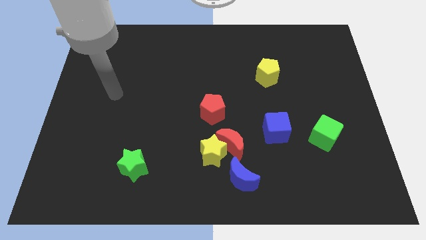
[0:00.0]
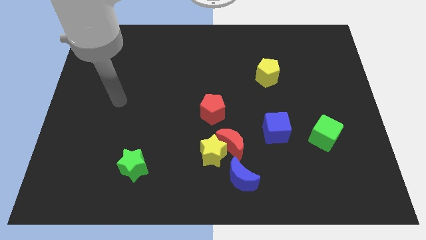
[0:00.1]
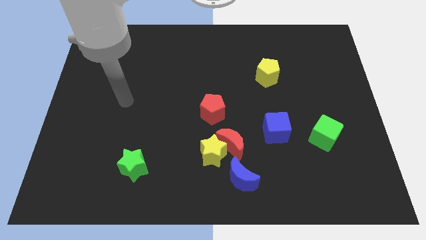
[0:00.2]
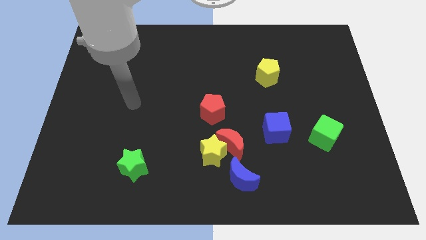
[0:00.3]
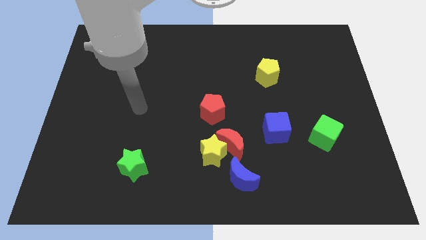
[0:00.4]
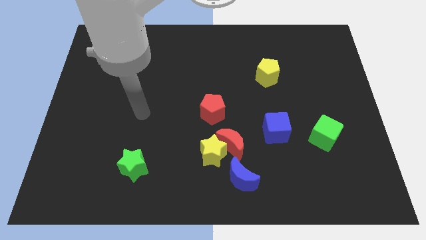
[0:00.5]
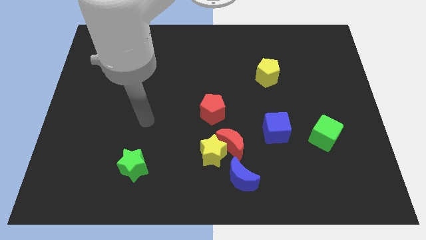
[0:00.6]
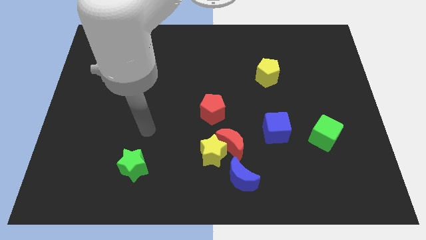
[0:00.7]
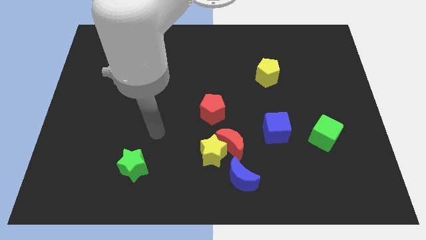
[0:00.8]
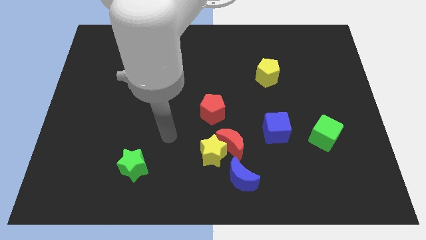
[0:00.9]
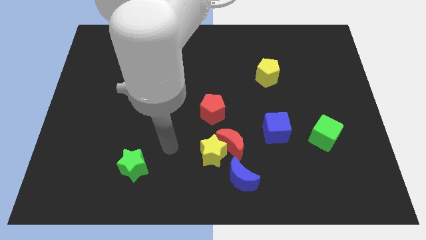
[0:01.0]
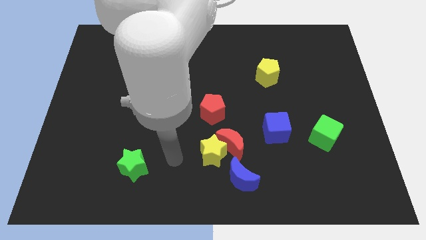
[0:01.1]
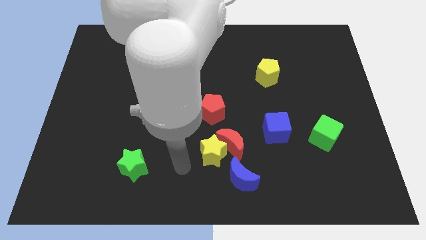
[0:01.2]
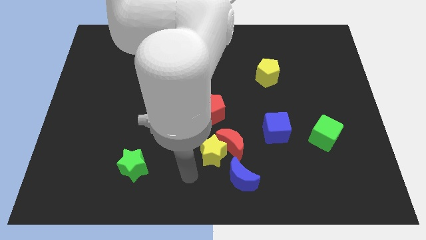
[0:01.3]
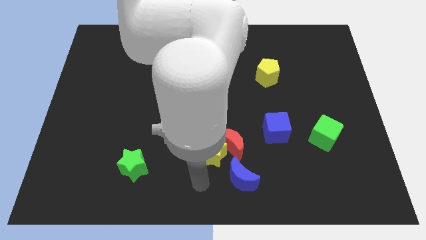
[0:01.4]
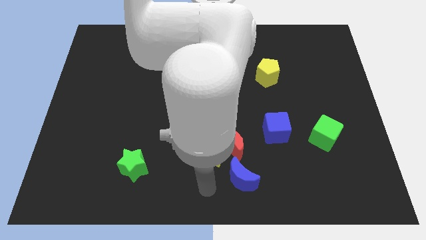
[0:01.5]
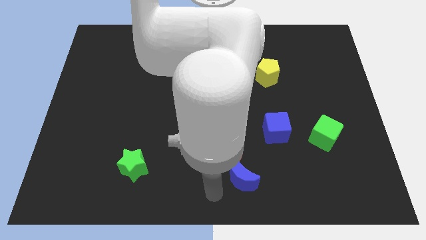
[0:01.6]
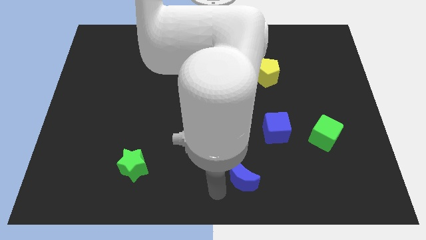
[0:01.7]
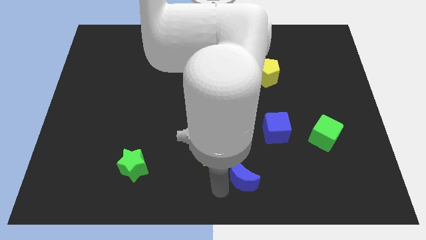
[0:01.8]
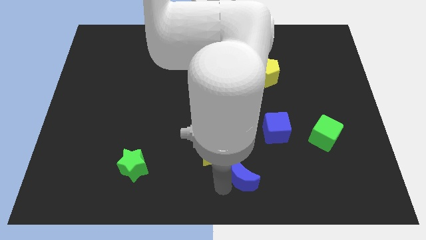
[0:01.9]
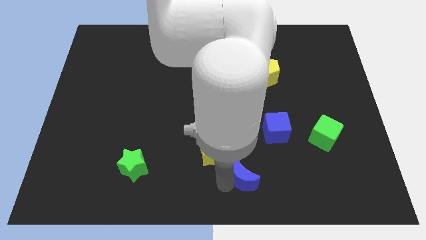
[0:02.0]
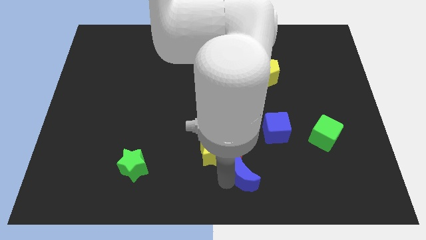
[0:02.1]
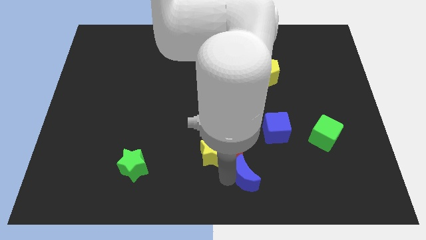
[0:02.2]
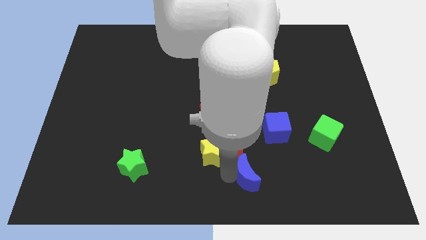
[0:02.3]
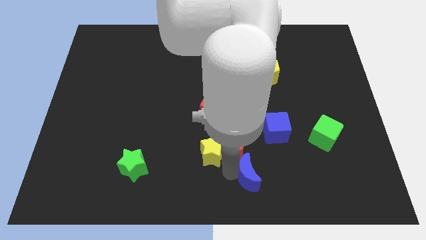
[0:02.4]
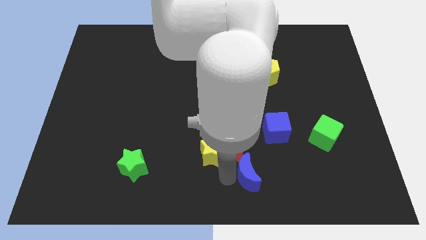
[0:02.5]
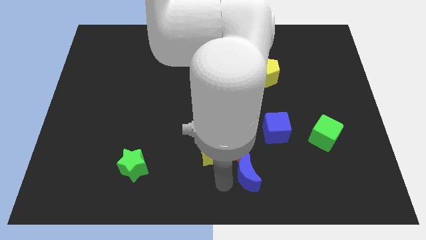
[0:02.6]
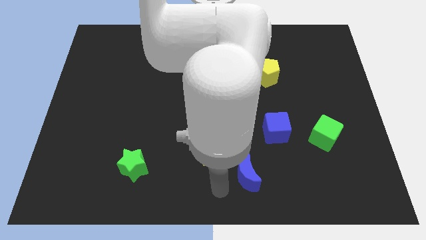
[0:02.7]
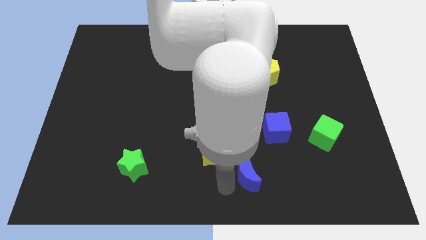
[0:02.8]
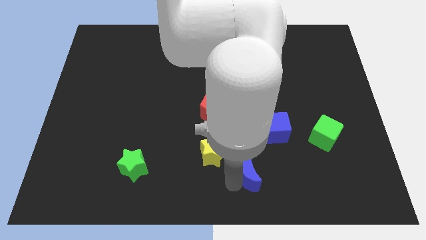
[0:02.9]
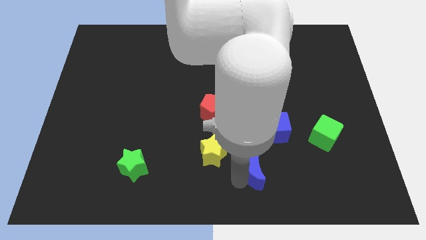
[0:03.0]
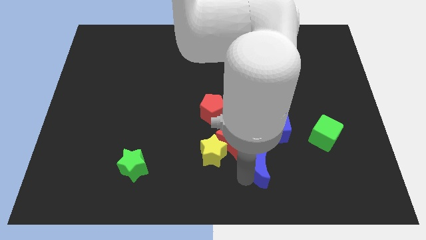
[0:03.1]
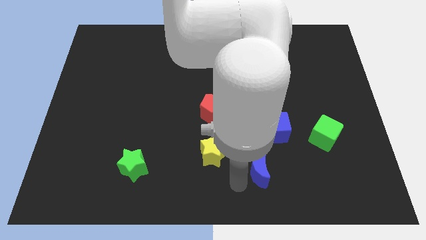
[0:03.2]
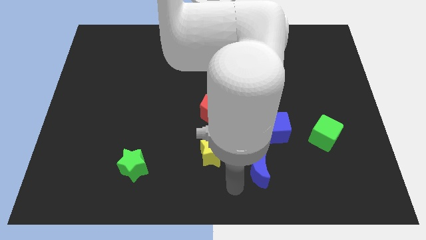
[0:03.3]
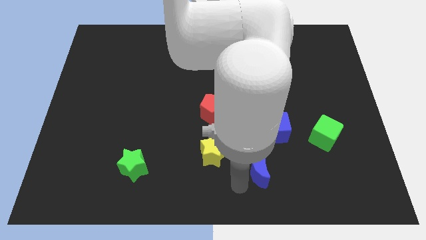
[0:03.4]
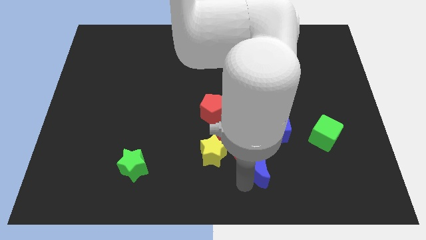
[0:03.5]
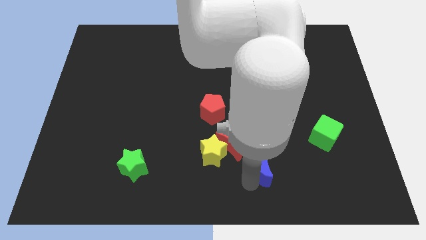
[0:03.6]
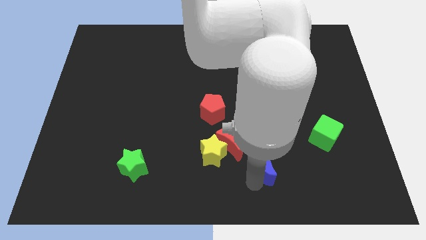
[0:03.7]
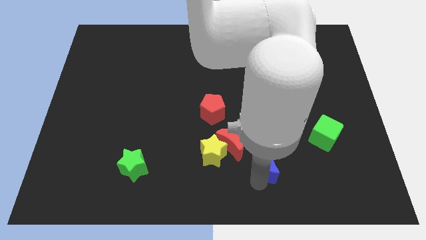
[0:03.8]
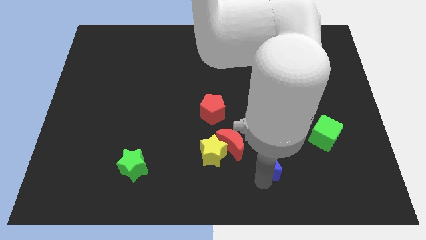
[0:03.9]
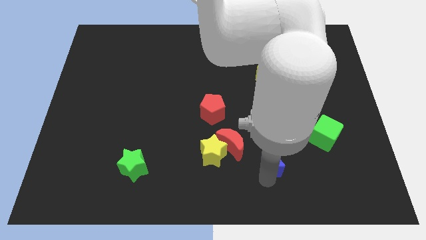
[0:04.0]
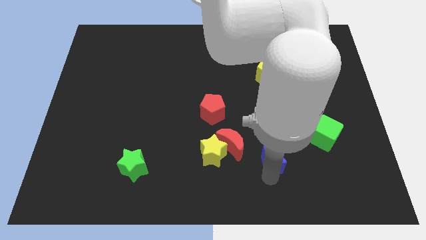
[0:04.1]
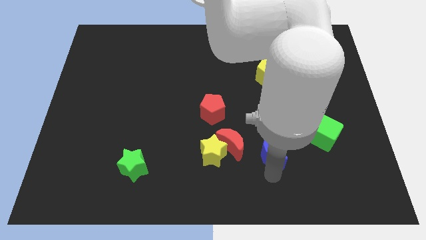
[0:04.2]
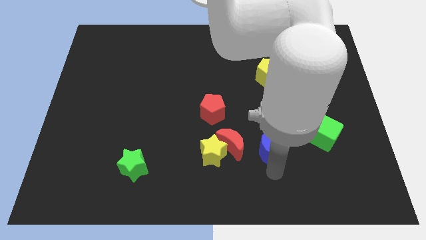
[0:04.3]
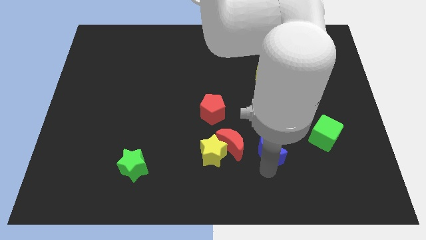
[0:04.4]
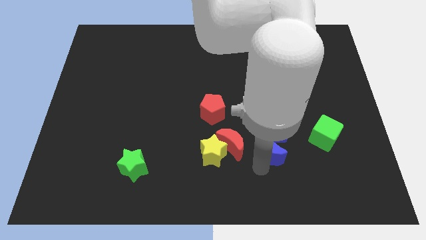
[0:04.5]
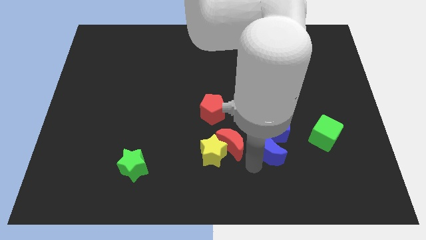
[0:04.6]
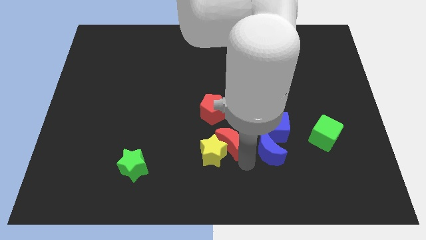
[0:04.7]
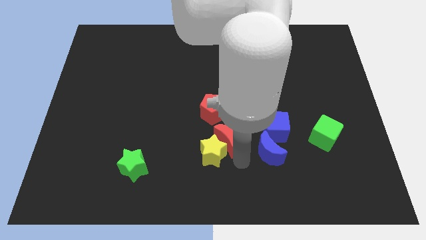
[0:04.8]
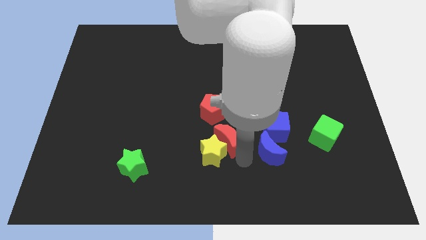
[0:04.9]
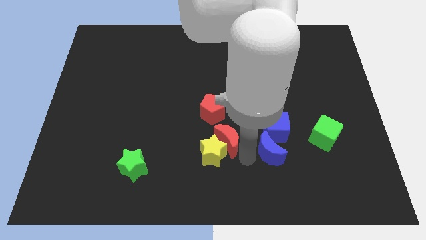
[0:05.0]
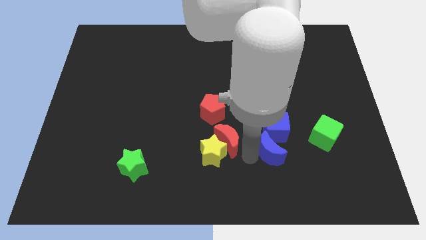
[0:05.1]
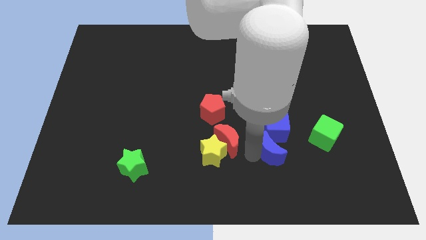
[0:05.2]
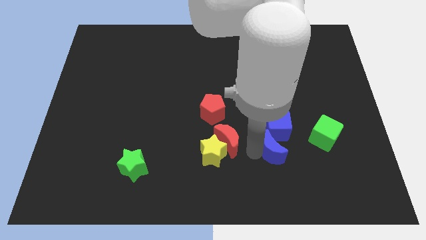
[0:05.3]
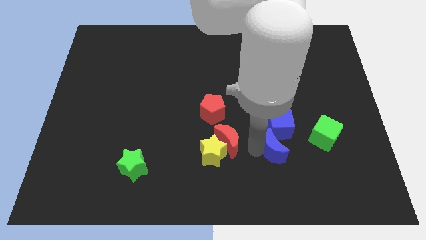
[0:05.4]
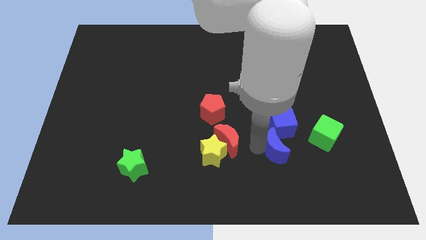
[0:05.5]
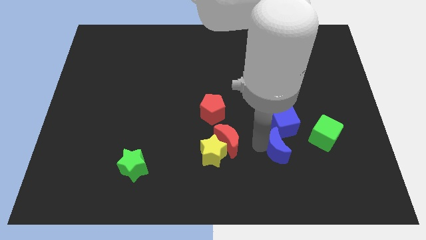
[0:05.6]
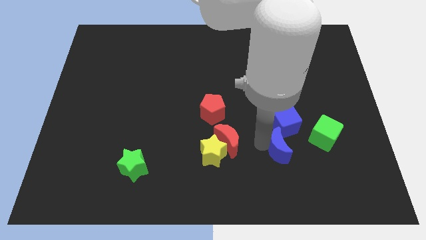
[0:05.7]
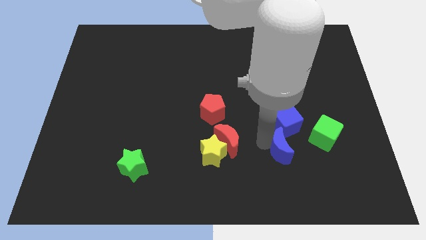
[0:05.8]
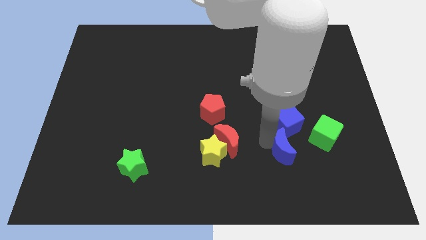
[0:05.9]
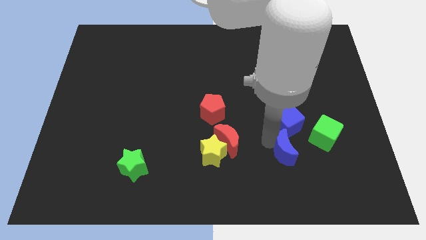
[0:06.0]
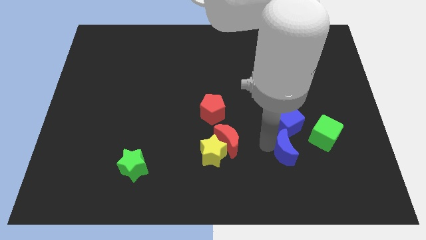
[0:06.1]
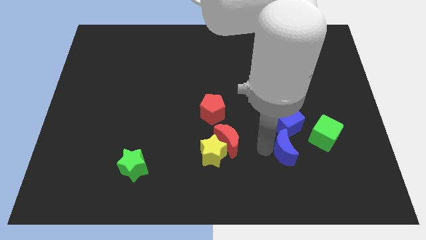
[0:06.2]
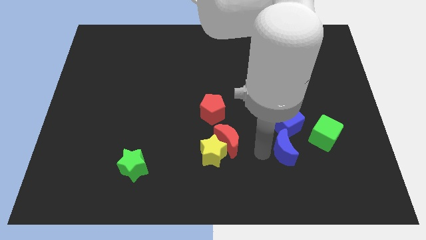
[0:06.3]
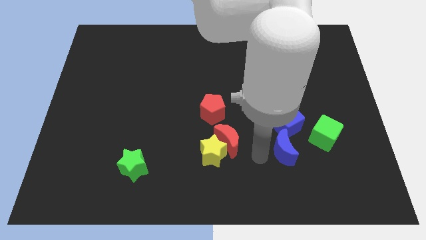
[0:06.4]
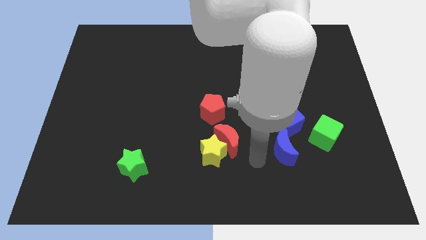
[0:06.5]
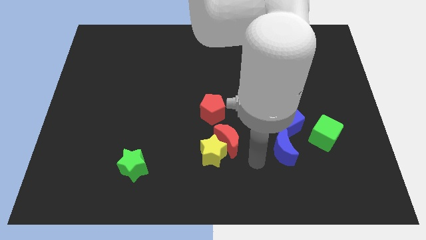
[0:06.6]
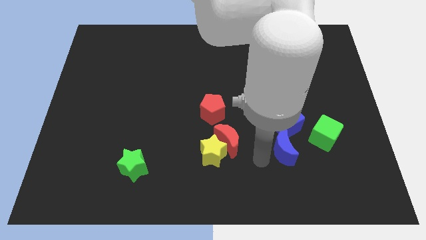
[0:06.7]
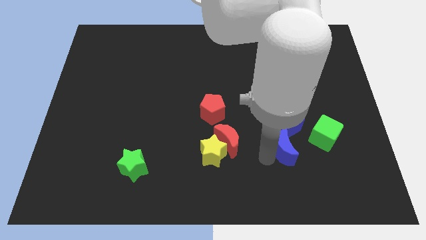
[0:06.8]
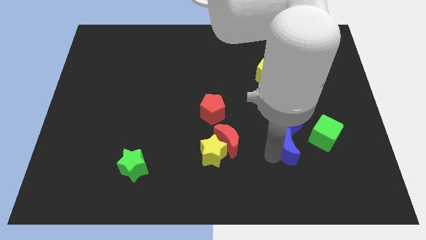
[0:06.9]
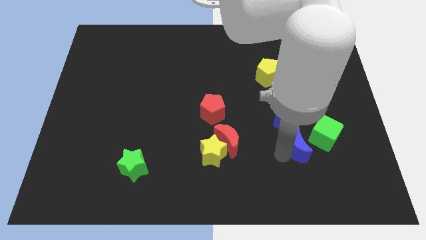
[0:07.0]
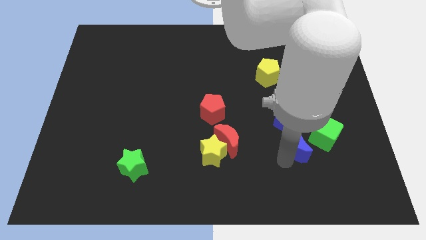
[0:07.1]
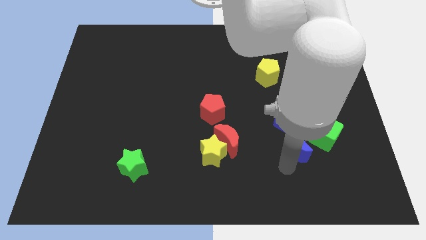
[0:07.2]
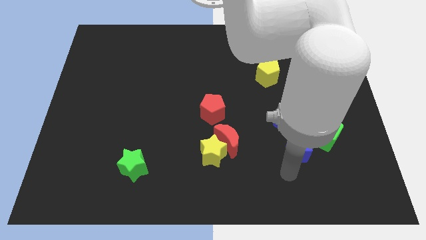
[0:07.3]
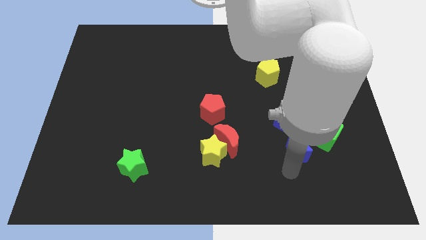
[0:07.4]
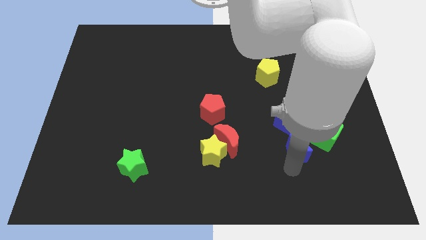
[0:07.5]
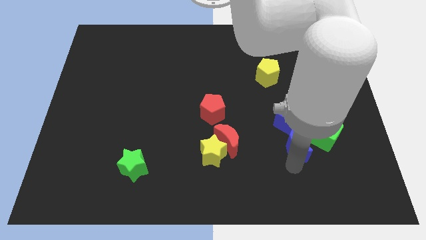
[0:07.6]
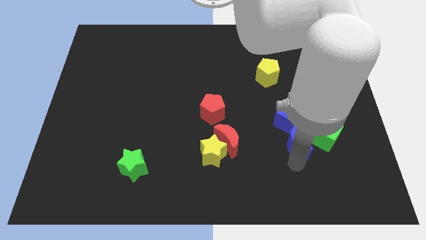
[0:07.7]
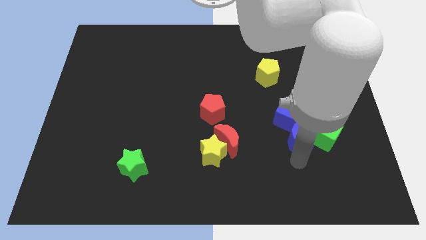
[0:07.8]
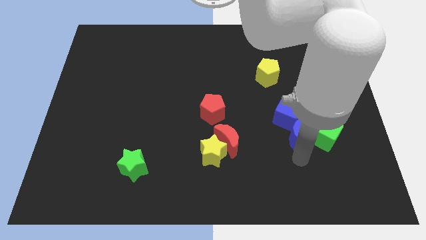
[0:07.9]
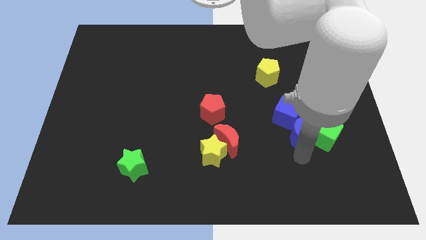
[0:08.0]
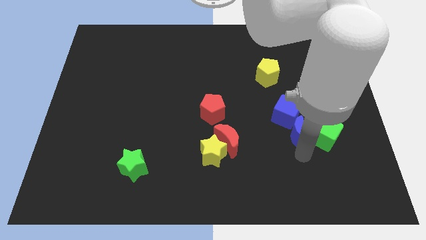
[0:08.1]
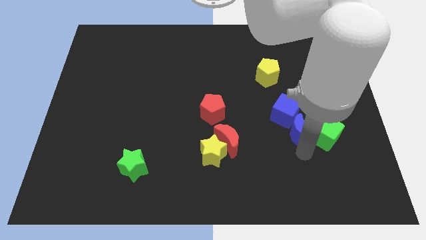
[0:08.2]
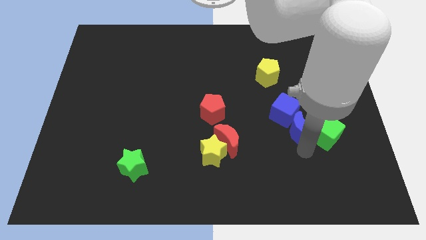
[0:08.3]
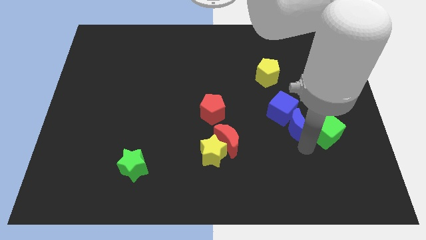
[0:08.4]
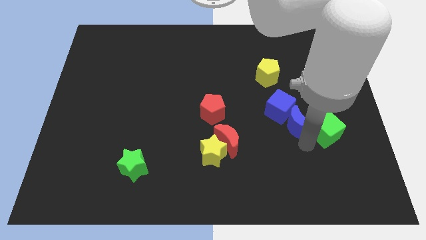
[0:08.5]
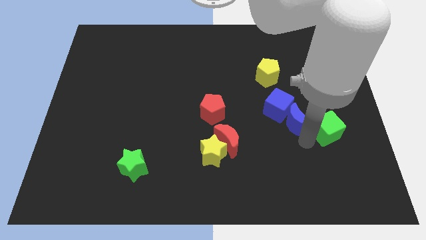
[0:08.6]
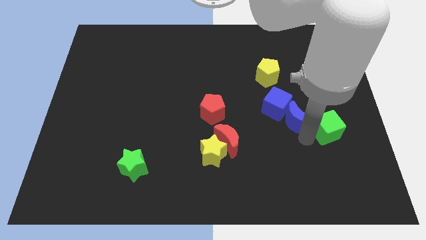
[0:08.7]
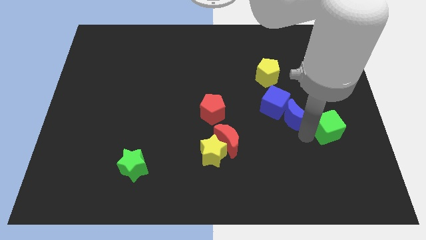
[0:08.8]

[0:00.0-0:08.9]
move the blue moon diagonally upwards and right
